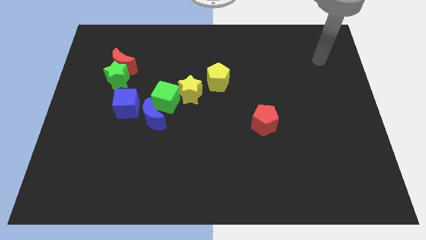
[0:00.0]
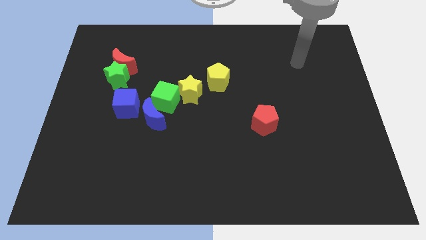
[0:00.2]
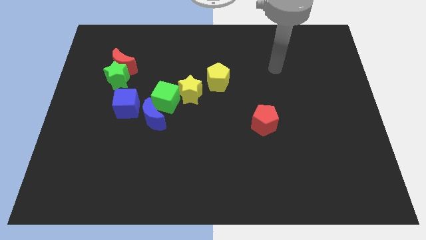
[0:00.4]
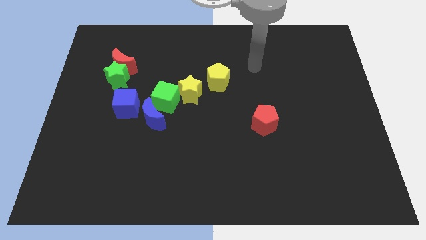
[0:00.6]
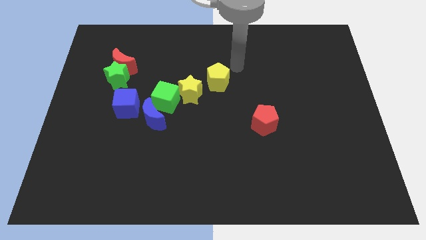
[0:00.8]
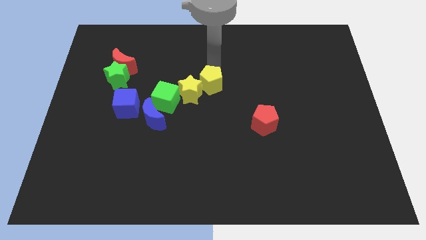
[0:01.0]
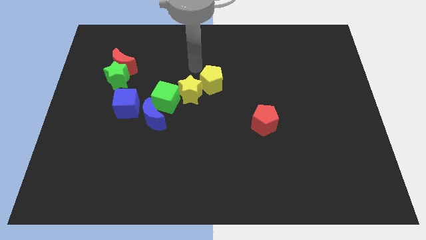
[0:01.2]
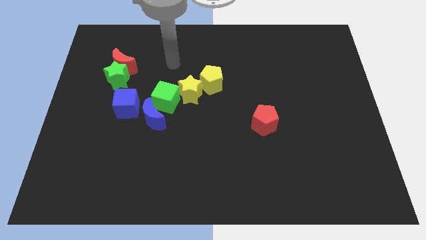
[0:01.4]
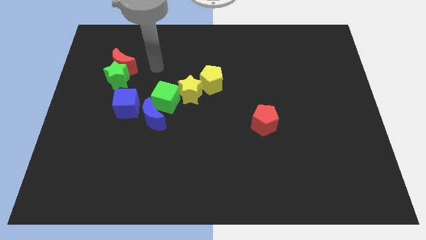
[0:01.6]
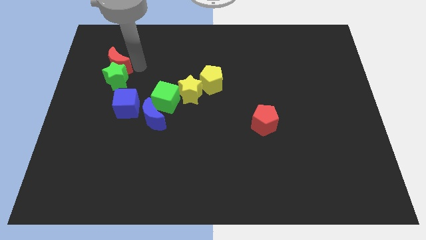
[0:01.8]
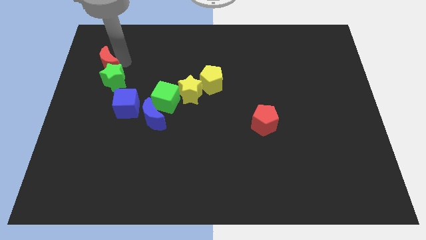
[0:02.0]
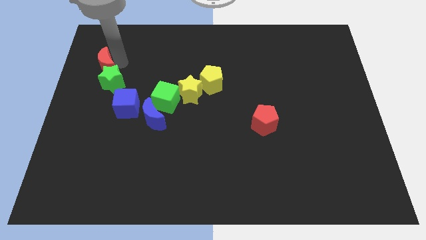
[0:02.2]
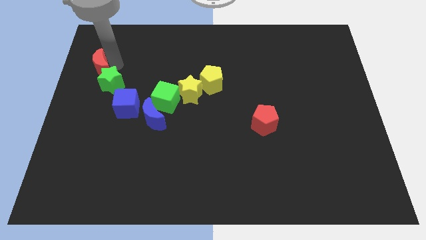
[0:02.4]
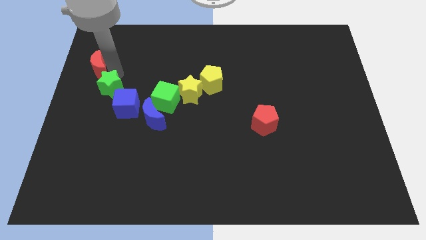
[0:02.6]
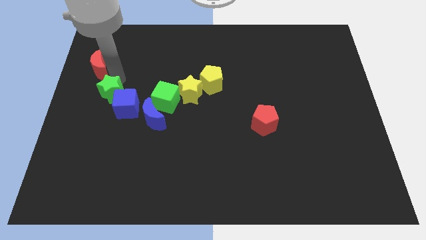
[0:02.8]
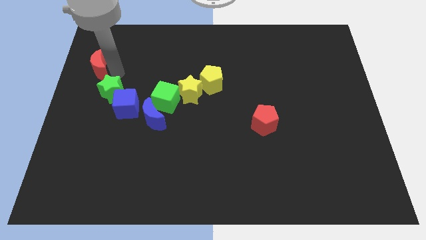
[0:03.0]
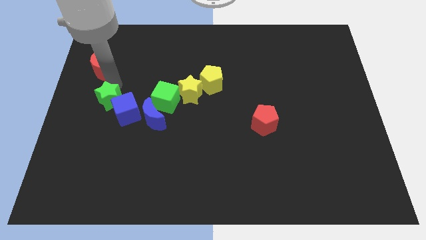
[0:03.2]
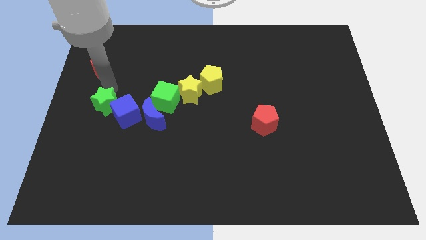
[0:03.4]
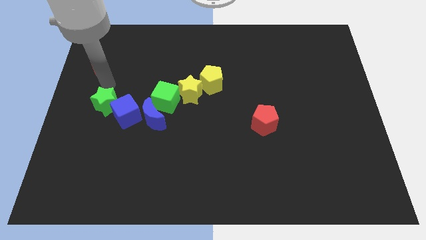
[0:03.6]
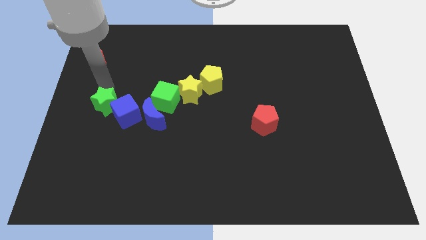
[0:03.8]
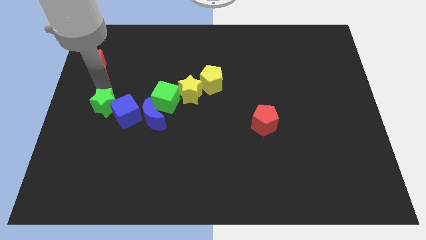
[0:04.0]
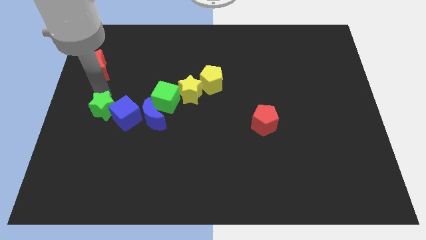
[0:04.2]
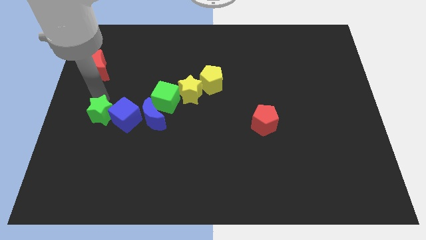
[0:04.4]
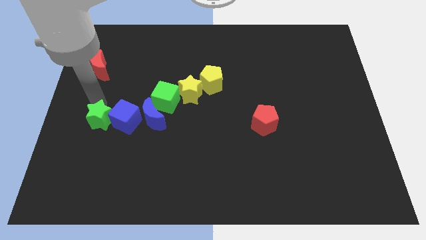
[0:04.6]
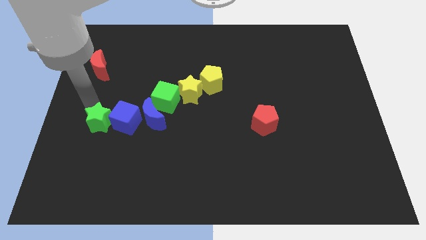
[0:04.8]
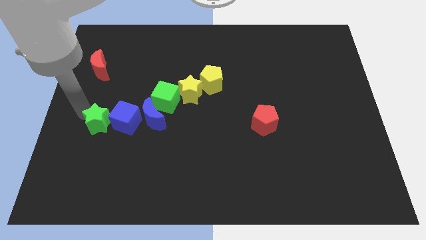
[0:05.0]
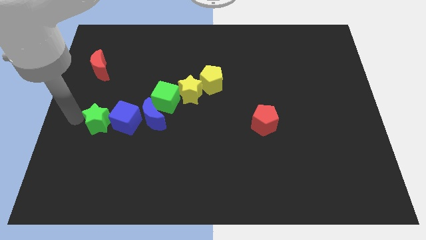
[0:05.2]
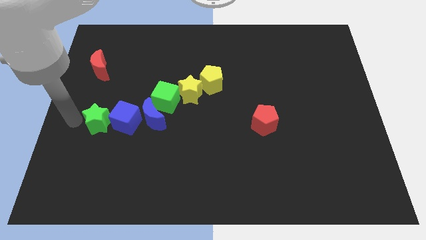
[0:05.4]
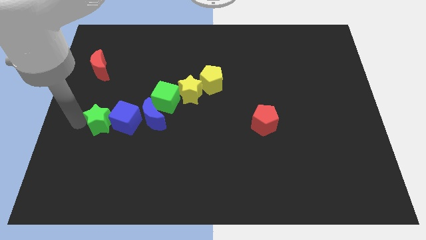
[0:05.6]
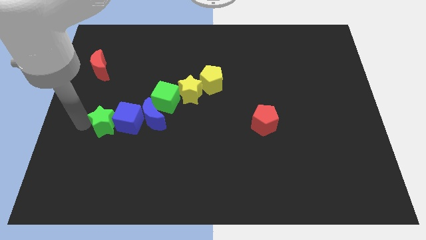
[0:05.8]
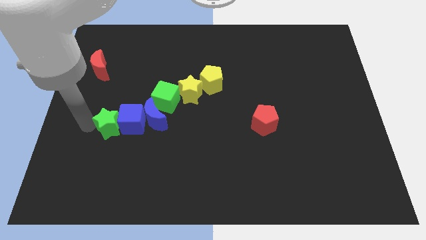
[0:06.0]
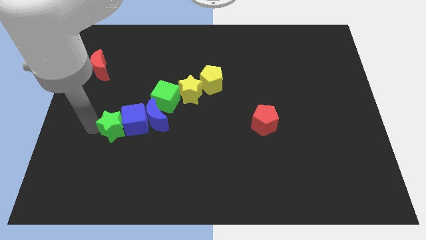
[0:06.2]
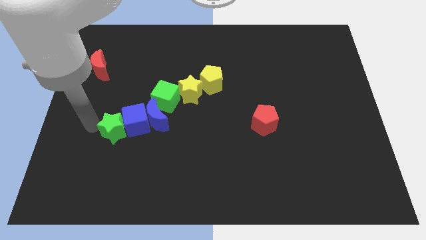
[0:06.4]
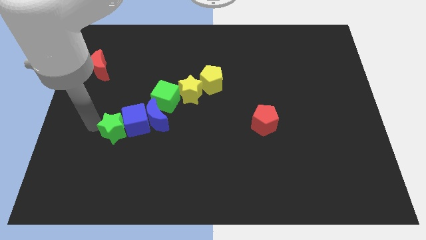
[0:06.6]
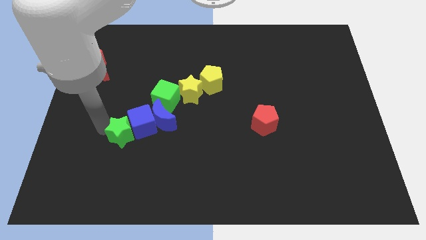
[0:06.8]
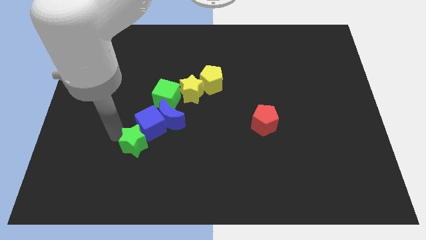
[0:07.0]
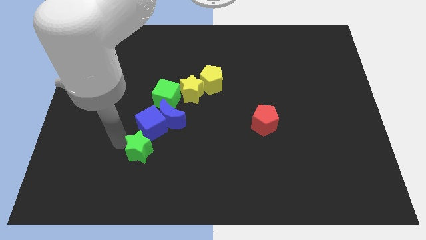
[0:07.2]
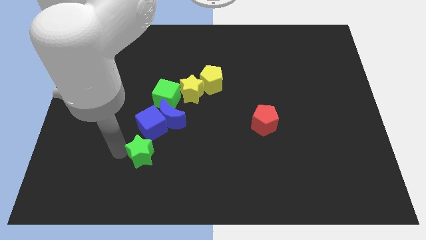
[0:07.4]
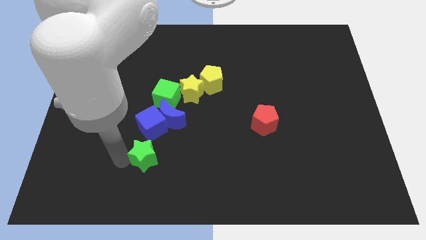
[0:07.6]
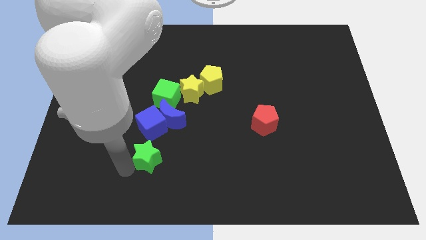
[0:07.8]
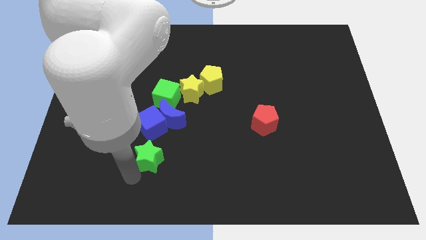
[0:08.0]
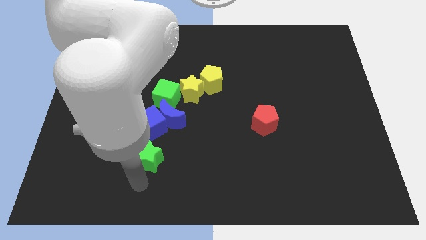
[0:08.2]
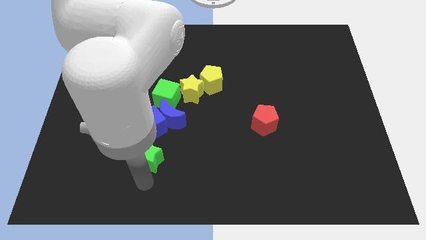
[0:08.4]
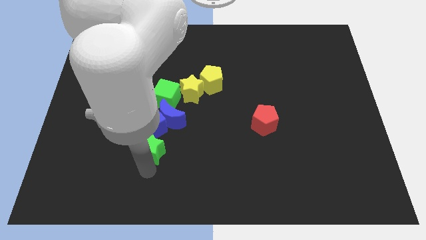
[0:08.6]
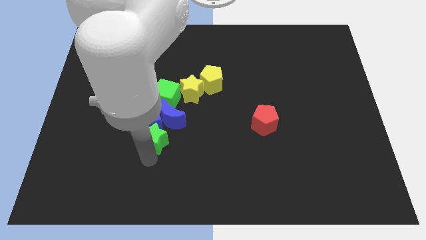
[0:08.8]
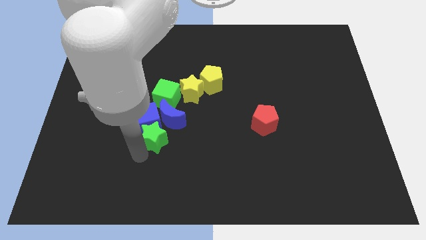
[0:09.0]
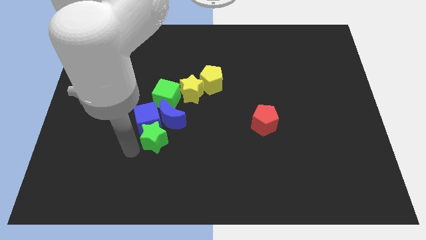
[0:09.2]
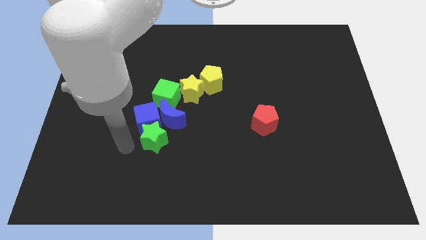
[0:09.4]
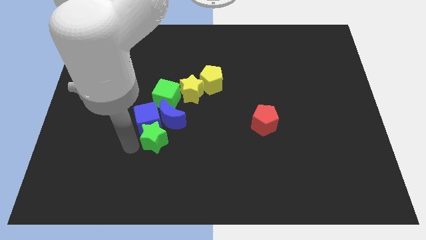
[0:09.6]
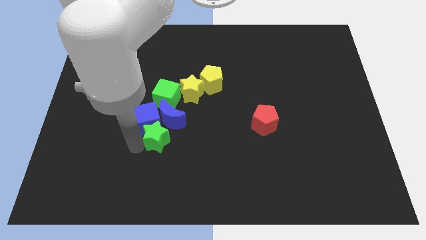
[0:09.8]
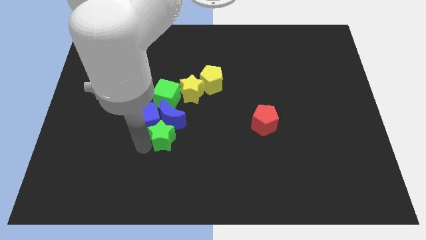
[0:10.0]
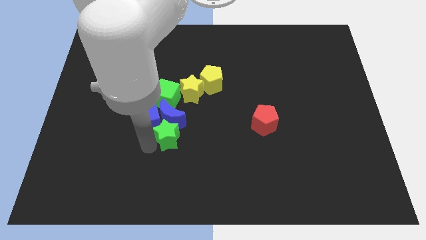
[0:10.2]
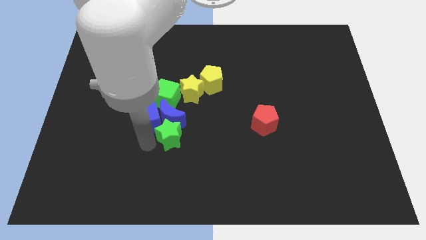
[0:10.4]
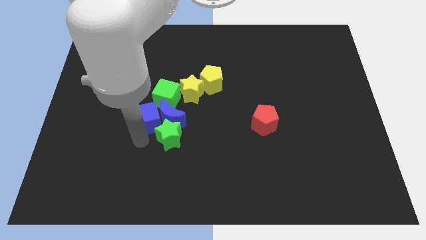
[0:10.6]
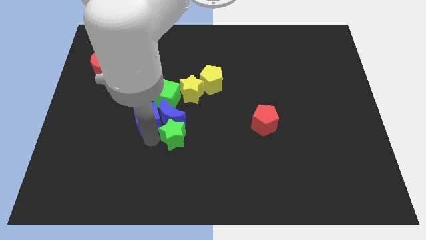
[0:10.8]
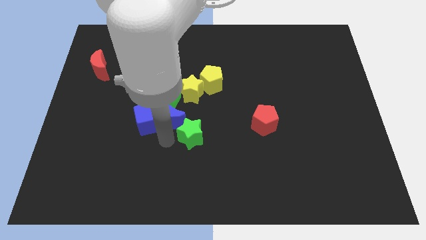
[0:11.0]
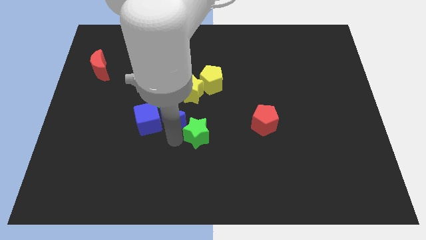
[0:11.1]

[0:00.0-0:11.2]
put the green star to the left of the red pentagon

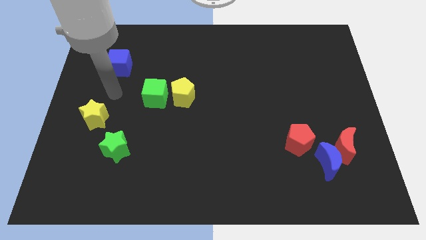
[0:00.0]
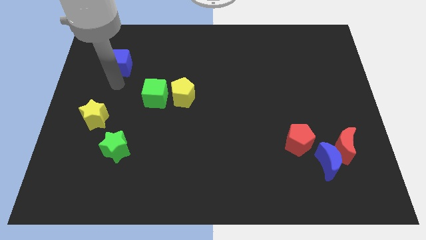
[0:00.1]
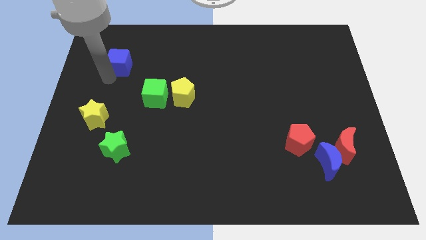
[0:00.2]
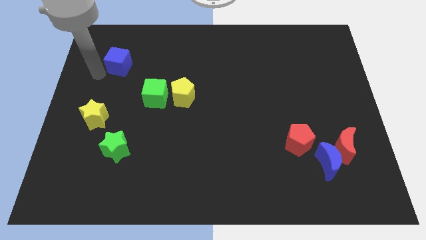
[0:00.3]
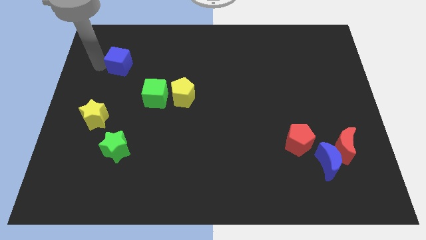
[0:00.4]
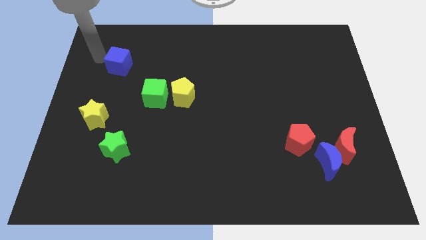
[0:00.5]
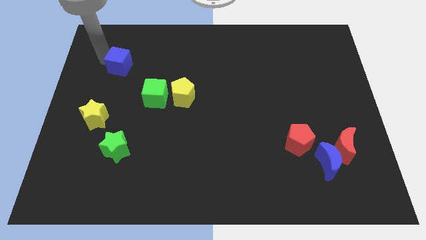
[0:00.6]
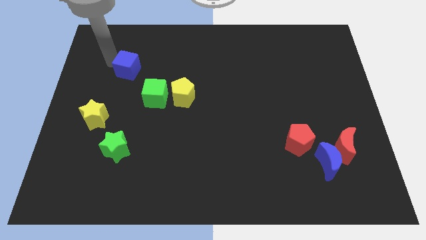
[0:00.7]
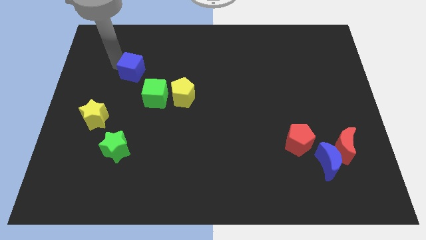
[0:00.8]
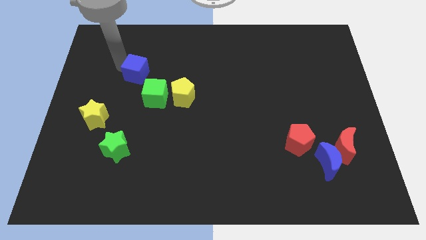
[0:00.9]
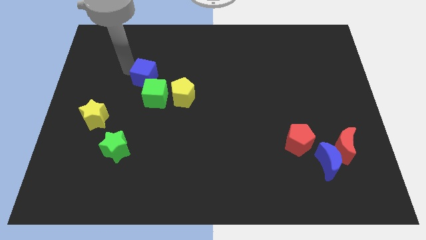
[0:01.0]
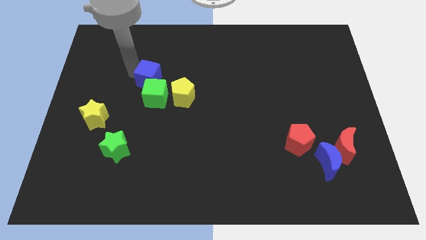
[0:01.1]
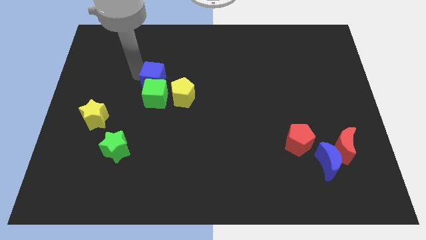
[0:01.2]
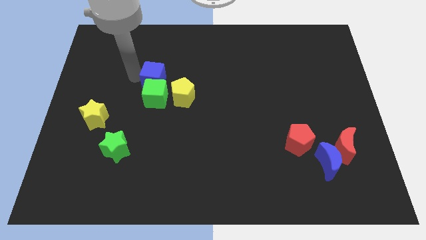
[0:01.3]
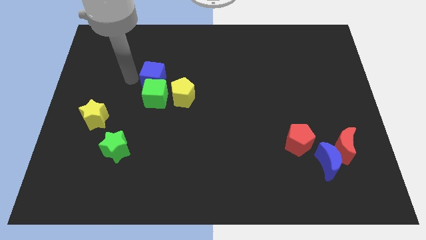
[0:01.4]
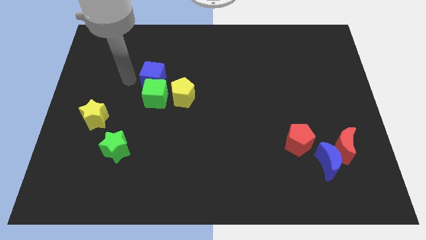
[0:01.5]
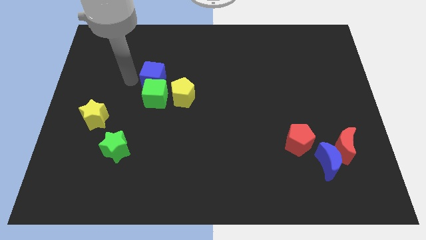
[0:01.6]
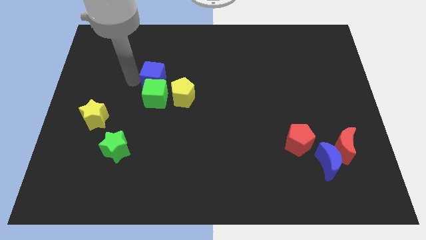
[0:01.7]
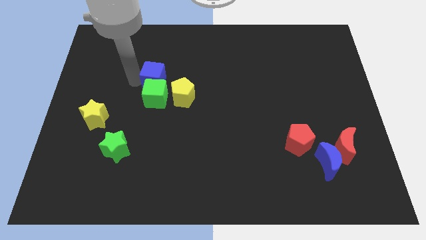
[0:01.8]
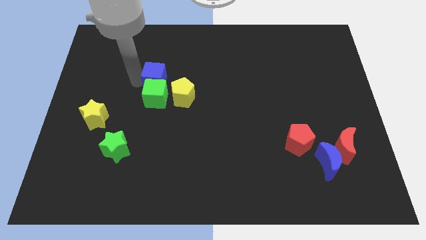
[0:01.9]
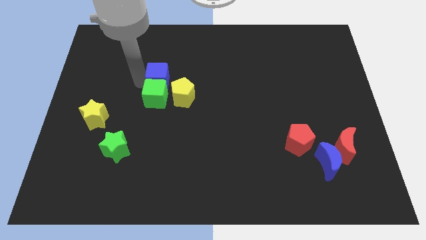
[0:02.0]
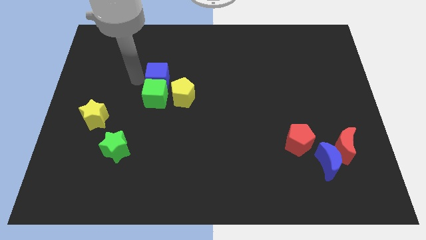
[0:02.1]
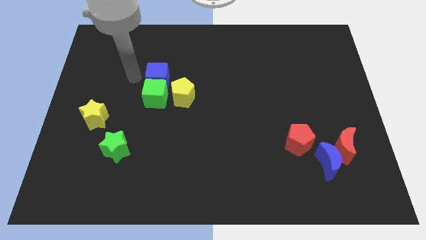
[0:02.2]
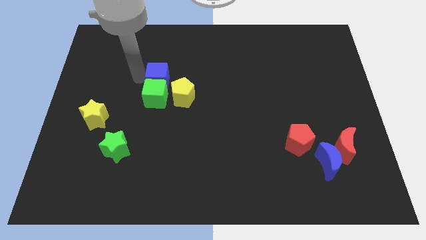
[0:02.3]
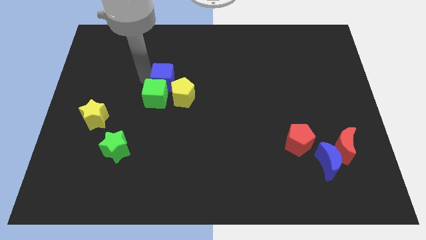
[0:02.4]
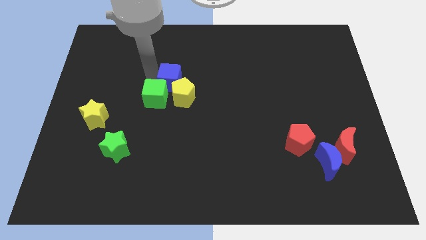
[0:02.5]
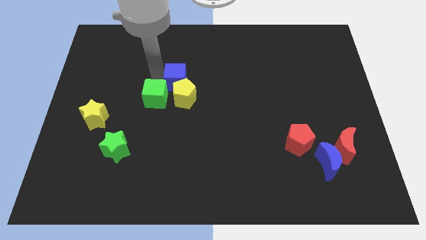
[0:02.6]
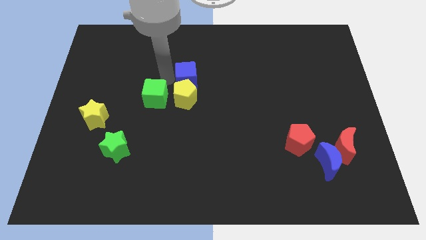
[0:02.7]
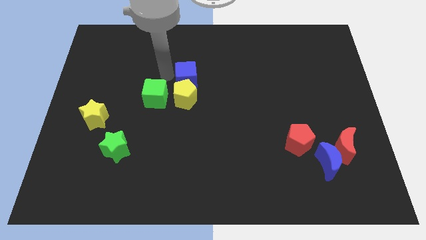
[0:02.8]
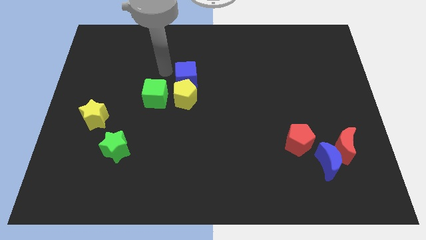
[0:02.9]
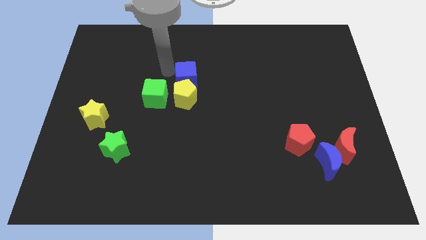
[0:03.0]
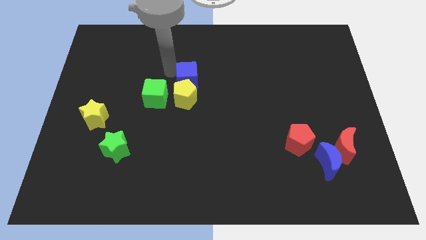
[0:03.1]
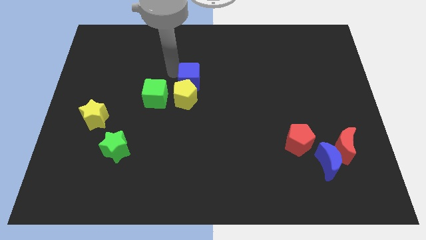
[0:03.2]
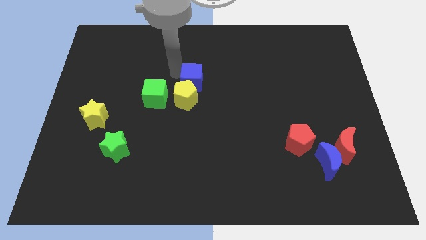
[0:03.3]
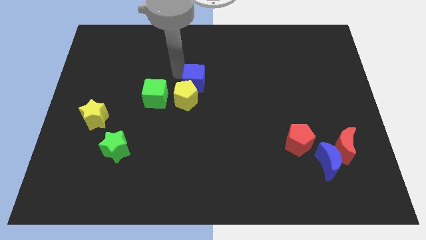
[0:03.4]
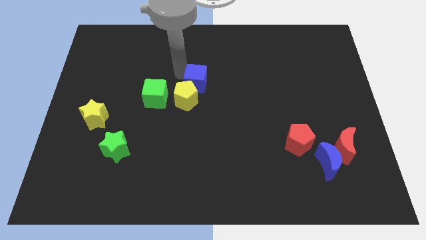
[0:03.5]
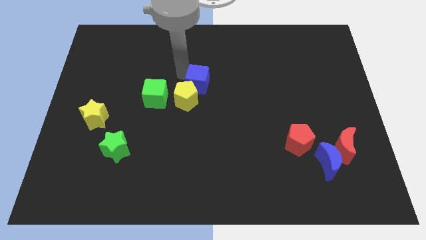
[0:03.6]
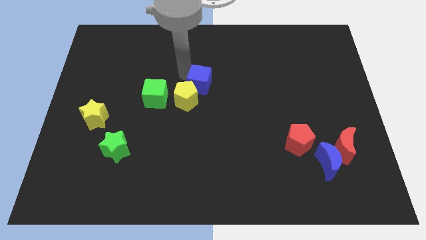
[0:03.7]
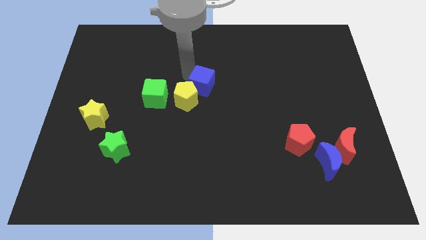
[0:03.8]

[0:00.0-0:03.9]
put the blue cube to the right side of the yellow pentagon
